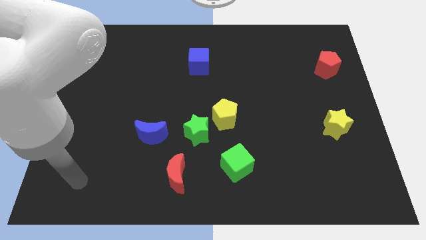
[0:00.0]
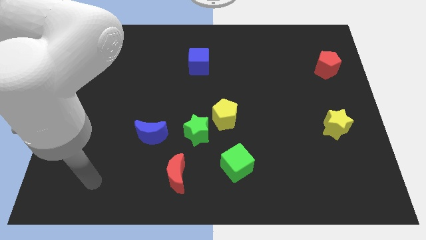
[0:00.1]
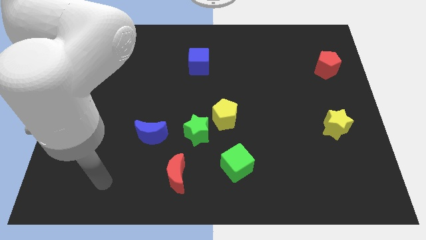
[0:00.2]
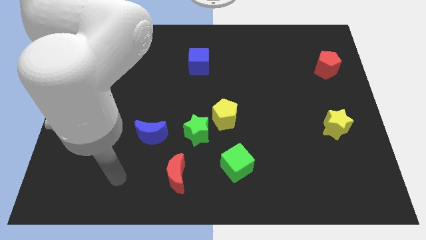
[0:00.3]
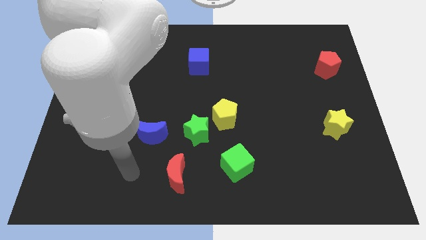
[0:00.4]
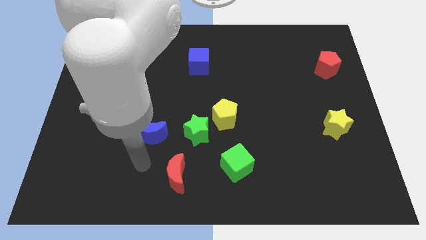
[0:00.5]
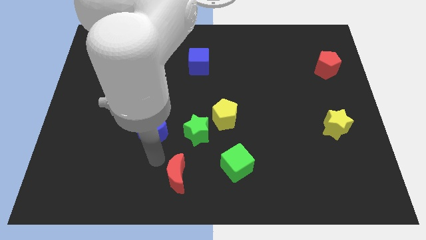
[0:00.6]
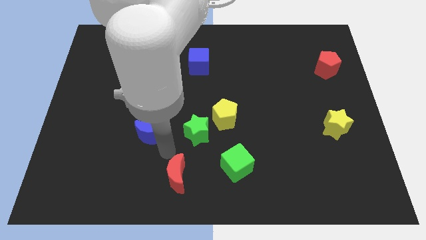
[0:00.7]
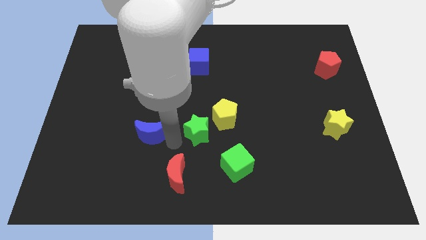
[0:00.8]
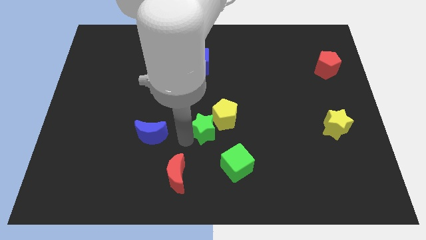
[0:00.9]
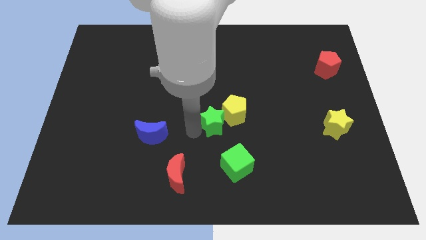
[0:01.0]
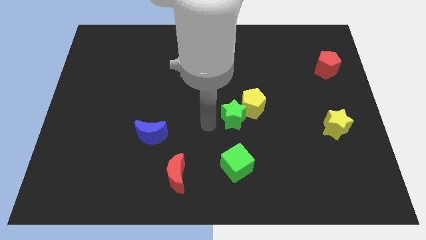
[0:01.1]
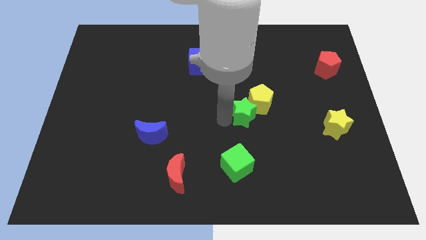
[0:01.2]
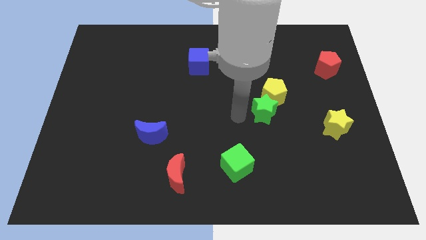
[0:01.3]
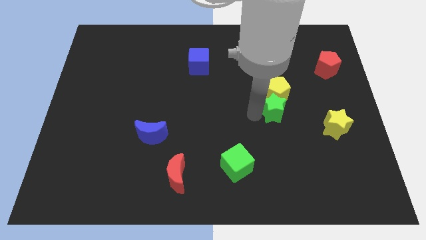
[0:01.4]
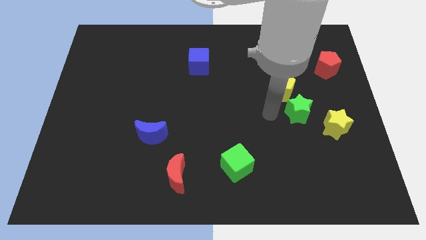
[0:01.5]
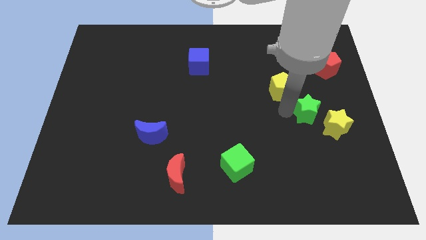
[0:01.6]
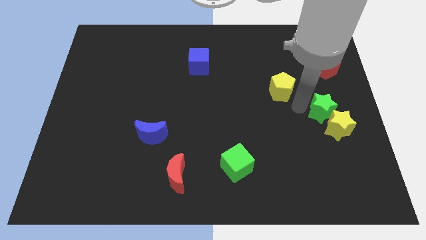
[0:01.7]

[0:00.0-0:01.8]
separate the yellow pentagon from the green star

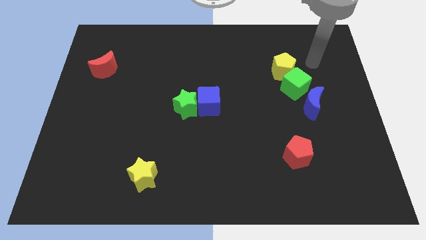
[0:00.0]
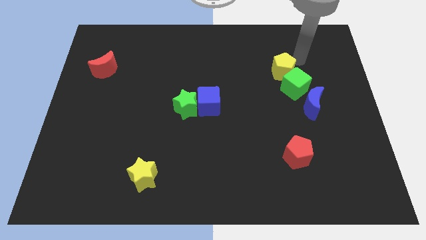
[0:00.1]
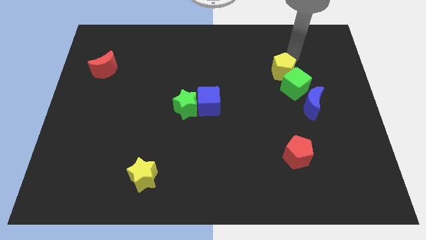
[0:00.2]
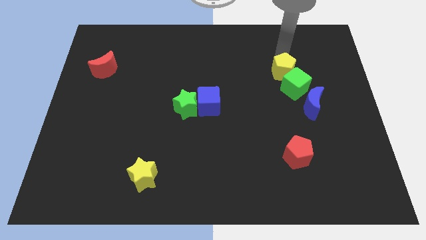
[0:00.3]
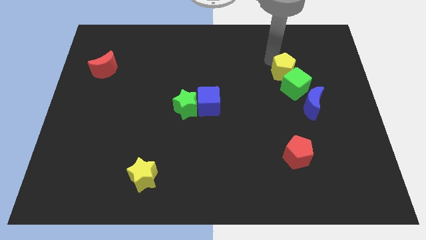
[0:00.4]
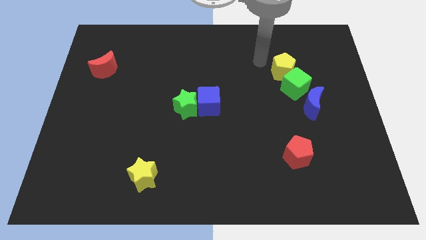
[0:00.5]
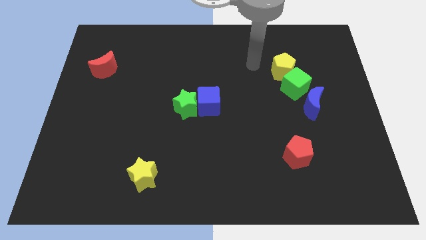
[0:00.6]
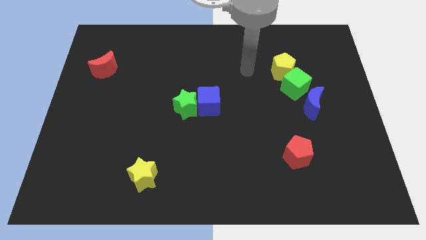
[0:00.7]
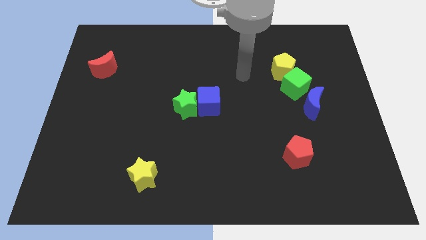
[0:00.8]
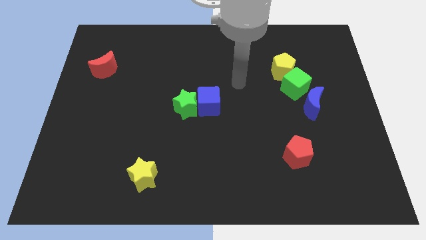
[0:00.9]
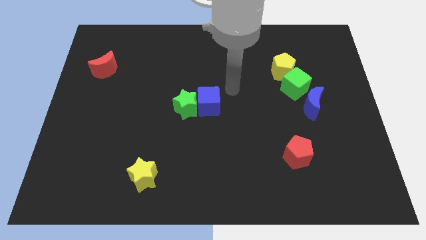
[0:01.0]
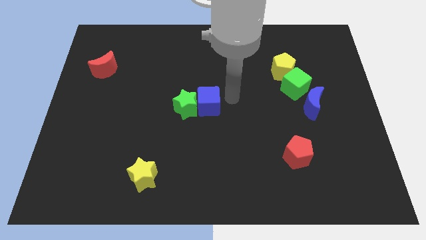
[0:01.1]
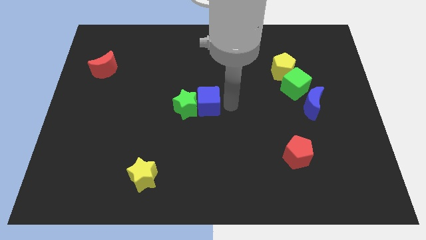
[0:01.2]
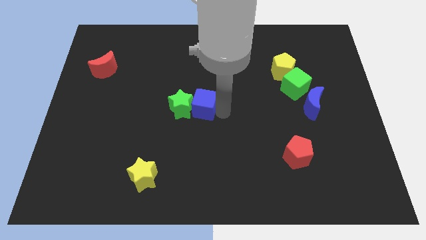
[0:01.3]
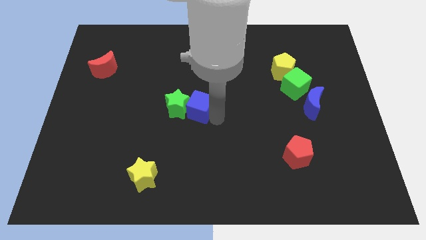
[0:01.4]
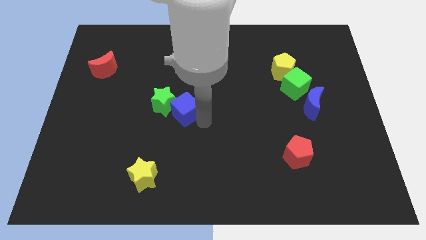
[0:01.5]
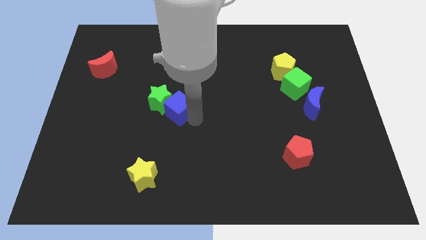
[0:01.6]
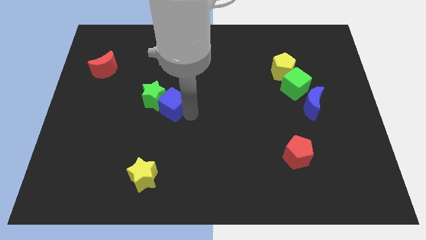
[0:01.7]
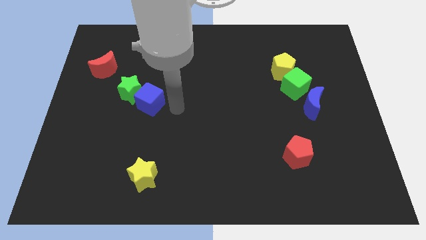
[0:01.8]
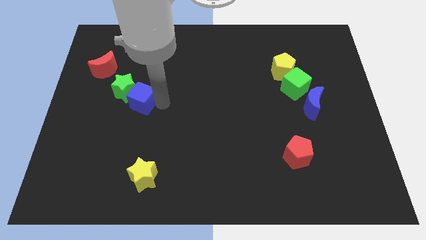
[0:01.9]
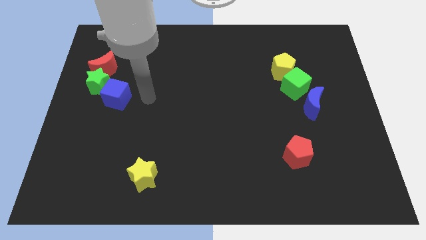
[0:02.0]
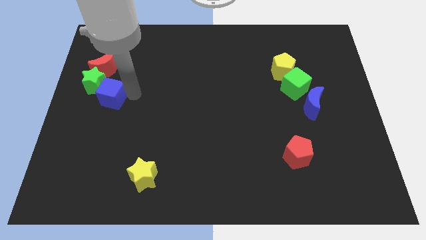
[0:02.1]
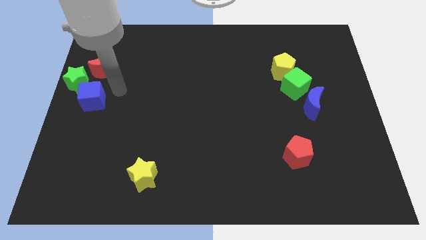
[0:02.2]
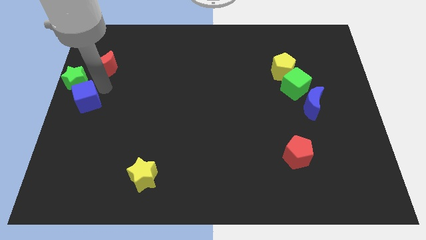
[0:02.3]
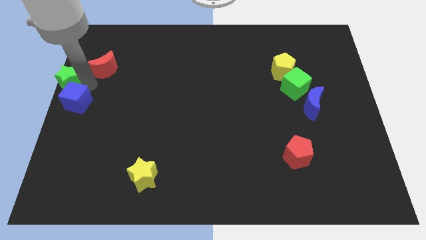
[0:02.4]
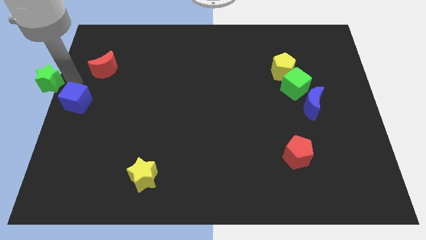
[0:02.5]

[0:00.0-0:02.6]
move the blue cube away from the green star

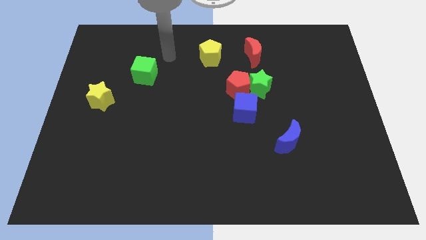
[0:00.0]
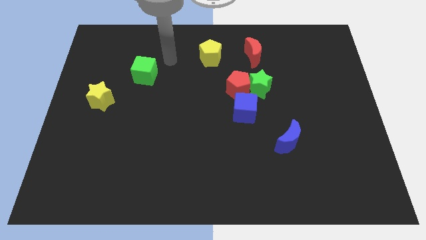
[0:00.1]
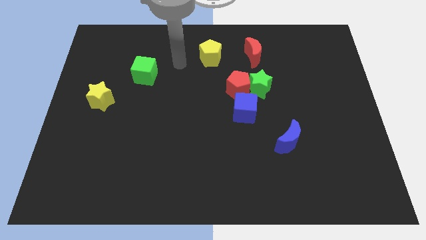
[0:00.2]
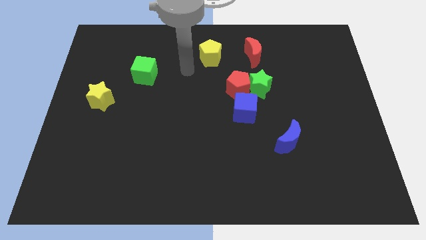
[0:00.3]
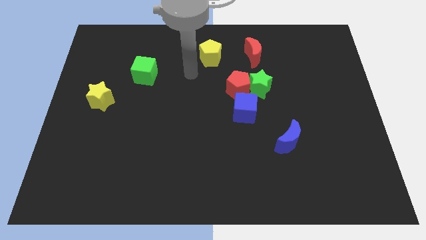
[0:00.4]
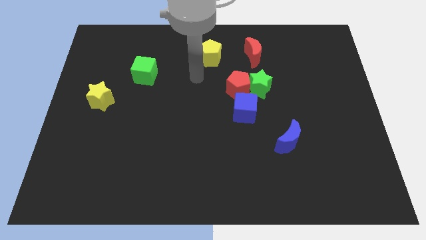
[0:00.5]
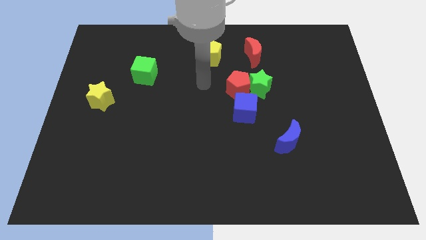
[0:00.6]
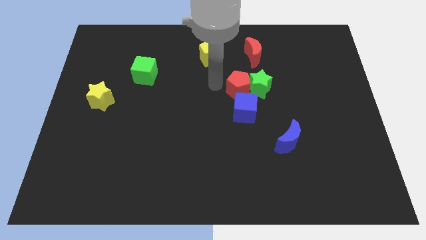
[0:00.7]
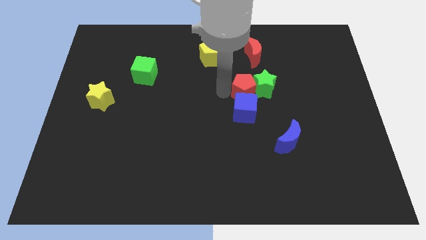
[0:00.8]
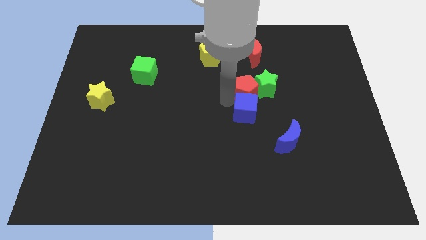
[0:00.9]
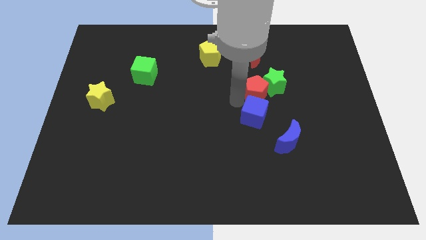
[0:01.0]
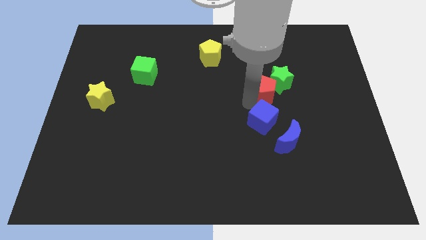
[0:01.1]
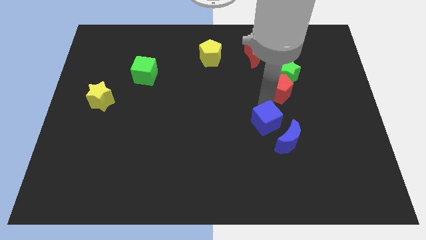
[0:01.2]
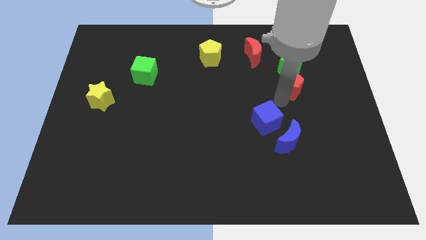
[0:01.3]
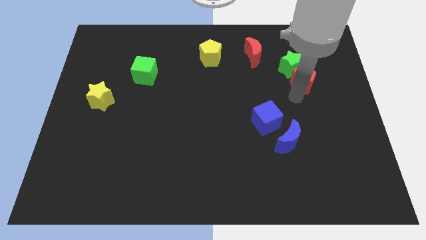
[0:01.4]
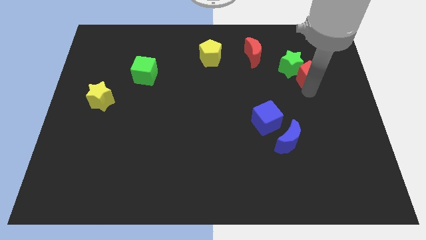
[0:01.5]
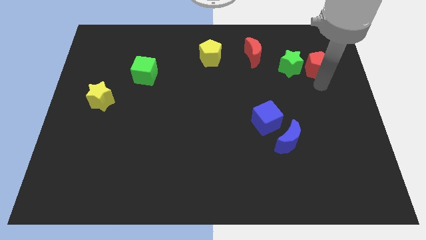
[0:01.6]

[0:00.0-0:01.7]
move the red pentagon away from the green star and blue cube

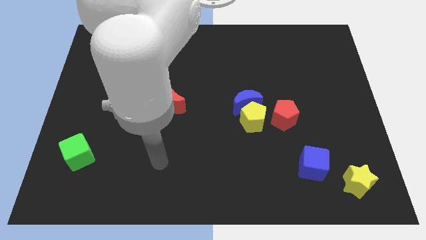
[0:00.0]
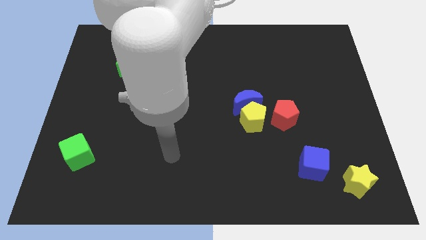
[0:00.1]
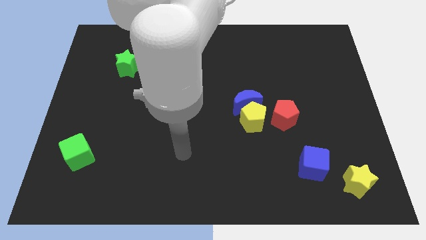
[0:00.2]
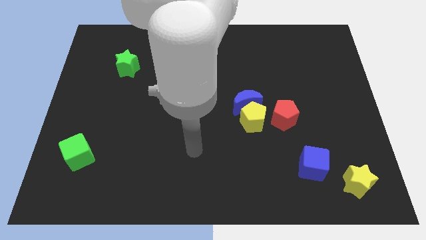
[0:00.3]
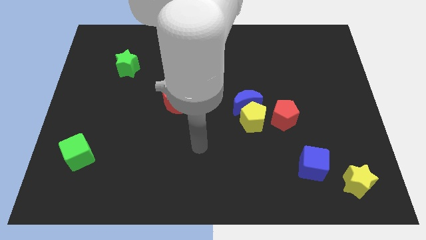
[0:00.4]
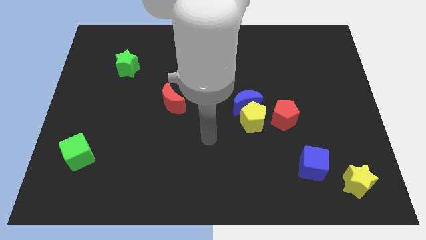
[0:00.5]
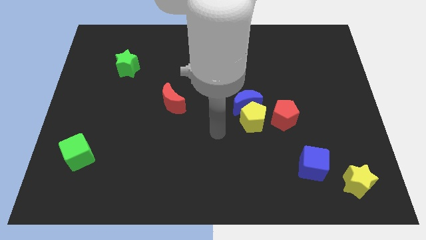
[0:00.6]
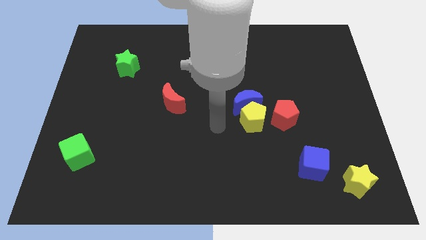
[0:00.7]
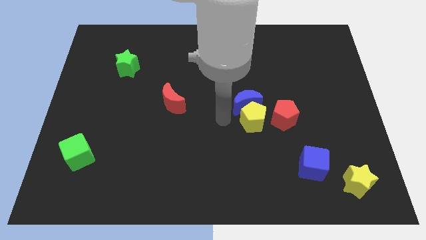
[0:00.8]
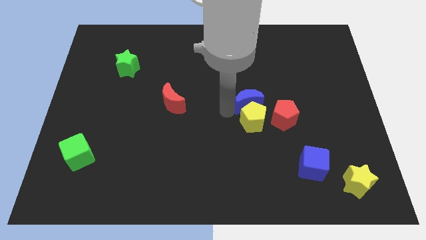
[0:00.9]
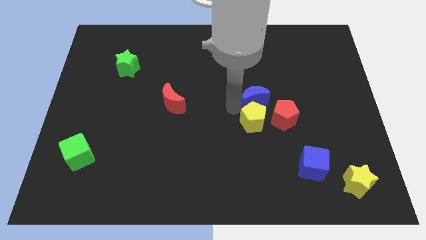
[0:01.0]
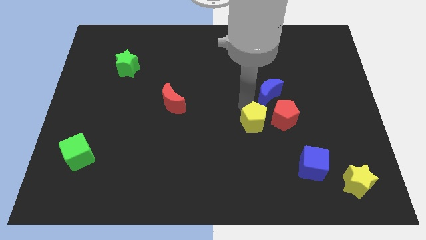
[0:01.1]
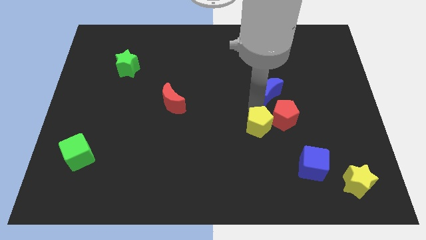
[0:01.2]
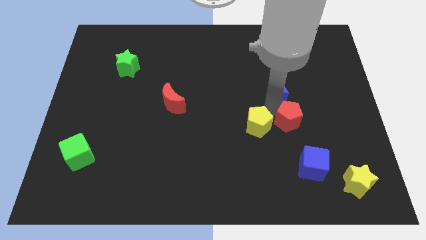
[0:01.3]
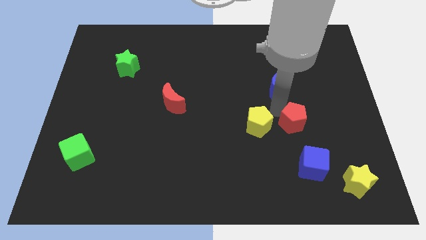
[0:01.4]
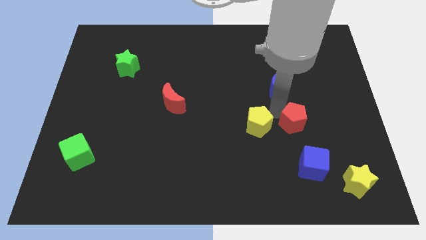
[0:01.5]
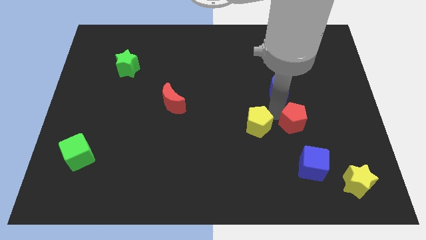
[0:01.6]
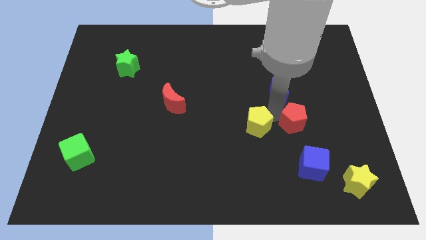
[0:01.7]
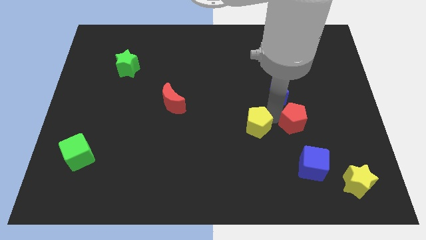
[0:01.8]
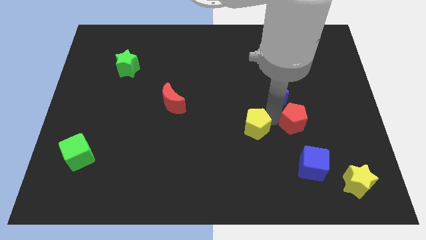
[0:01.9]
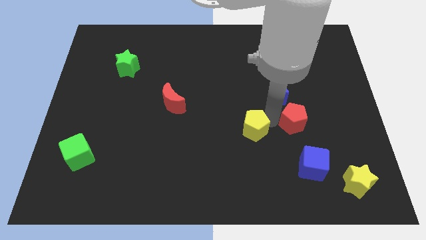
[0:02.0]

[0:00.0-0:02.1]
separate the yellow pentagon from the blue moon and red pentagon

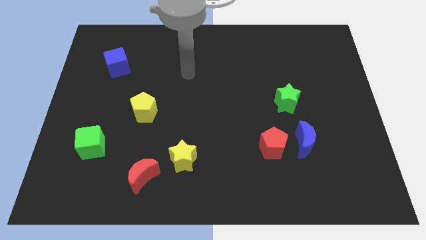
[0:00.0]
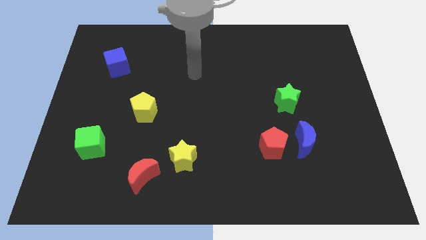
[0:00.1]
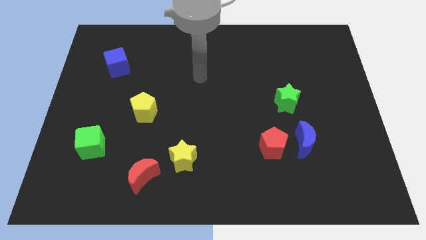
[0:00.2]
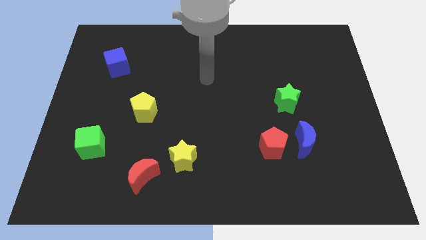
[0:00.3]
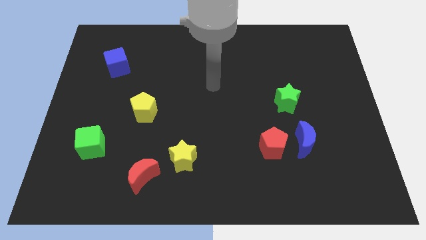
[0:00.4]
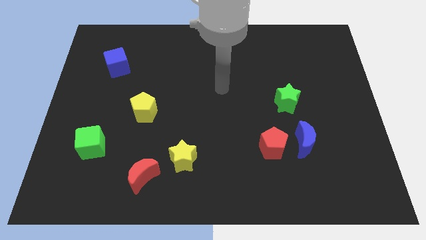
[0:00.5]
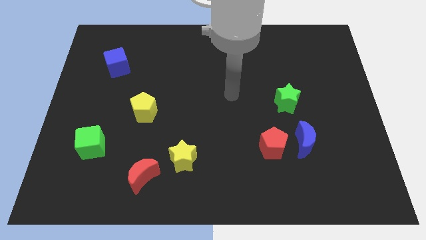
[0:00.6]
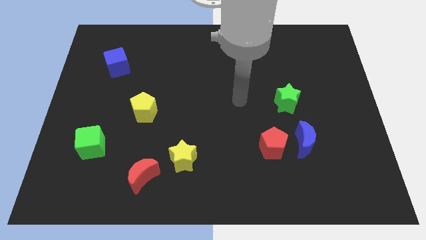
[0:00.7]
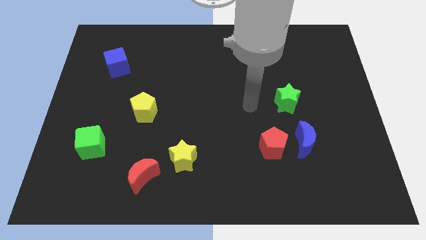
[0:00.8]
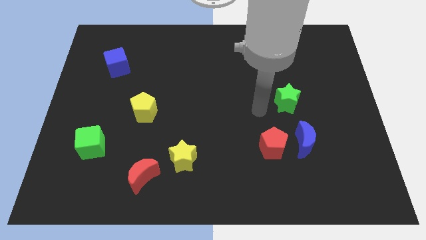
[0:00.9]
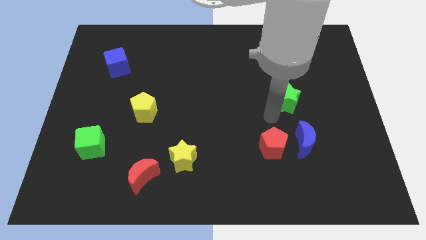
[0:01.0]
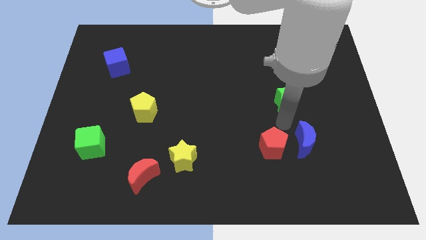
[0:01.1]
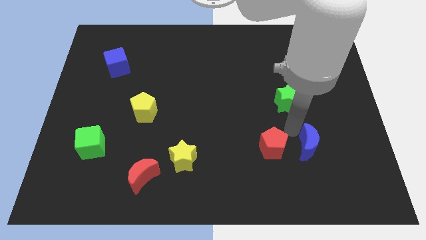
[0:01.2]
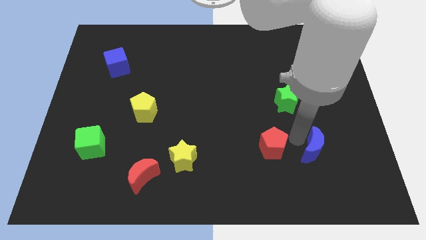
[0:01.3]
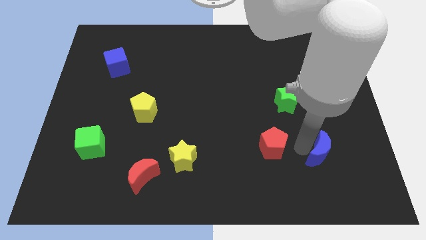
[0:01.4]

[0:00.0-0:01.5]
move the red pentagon away from the blue moon
